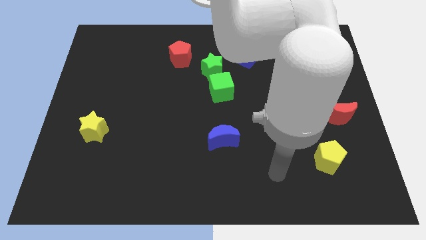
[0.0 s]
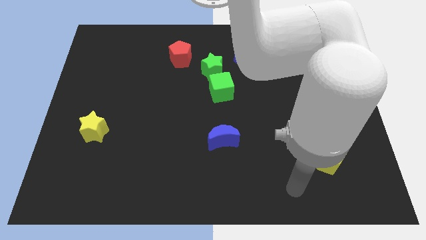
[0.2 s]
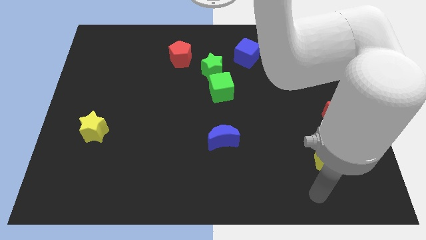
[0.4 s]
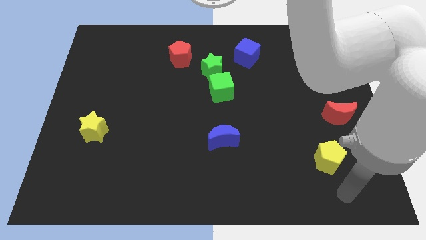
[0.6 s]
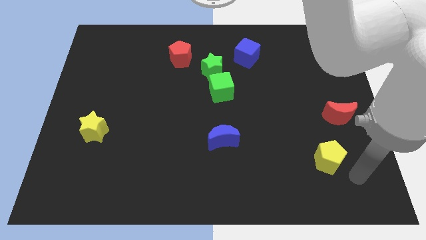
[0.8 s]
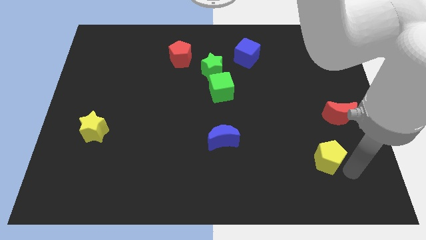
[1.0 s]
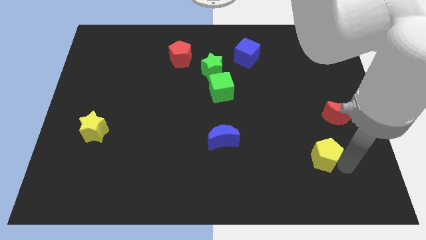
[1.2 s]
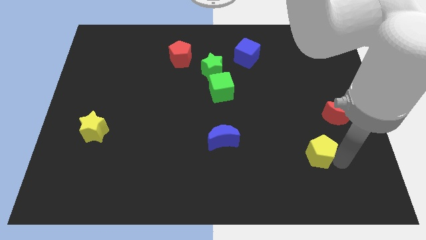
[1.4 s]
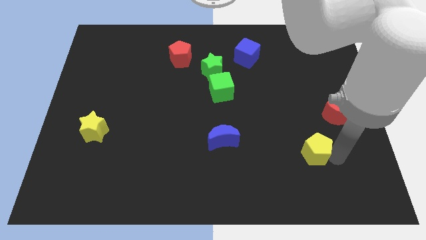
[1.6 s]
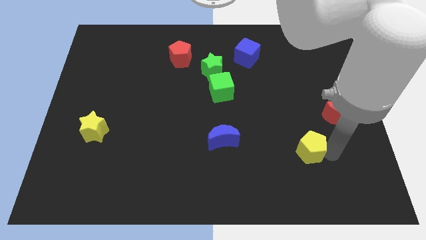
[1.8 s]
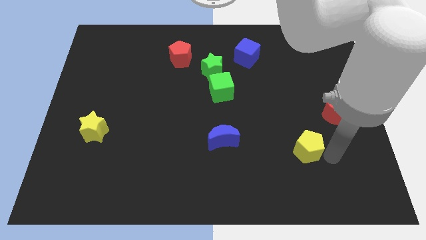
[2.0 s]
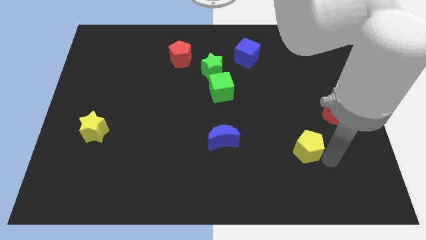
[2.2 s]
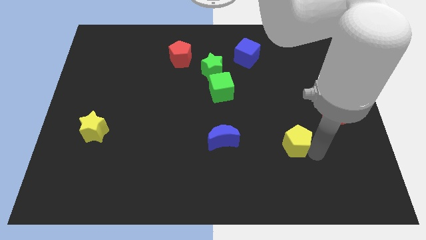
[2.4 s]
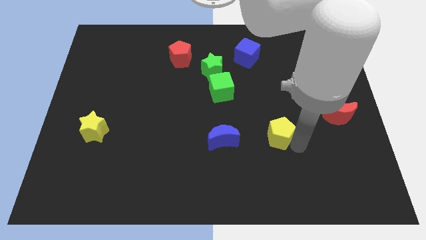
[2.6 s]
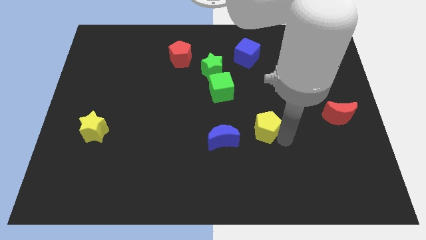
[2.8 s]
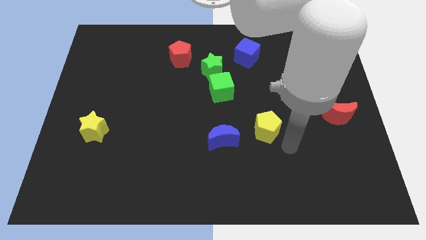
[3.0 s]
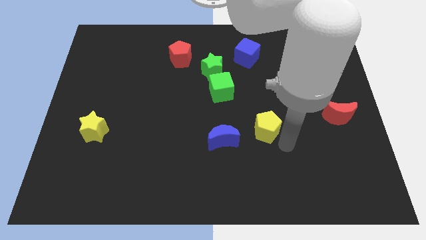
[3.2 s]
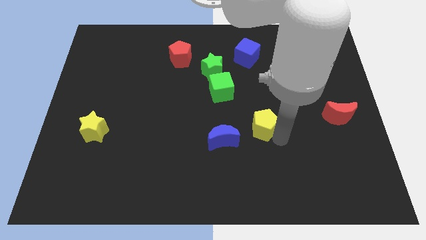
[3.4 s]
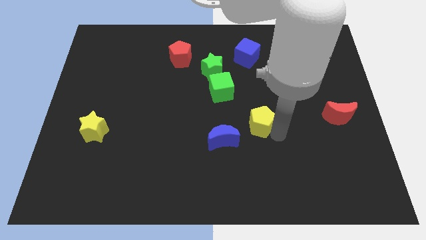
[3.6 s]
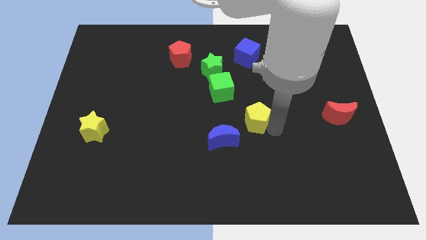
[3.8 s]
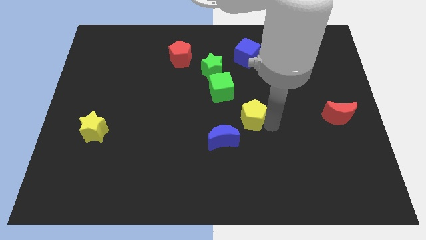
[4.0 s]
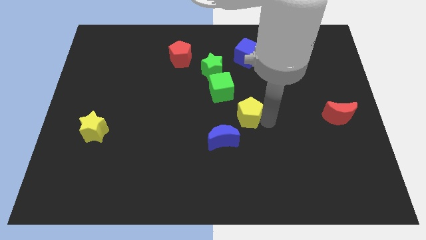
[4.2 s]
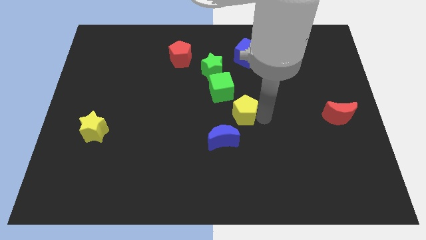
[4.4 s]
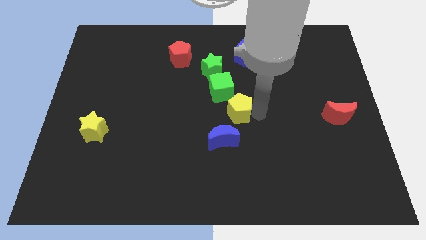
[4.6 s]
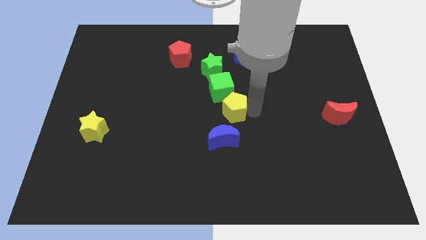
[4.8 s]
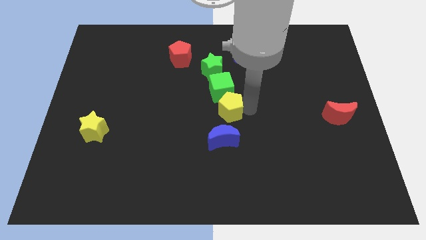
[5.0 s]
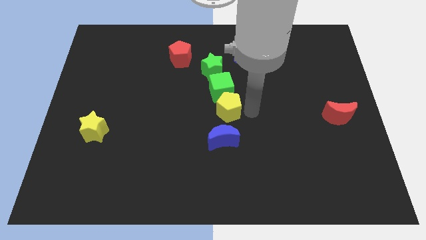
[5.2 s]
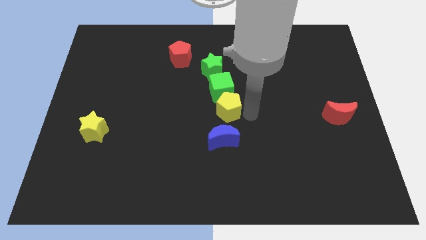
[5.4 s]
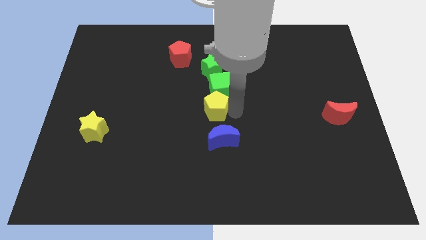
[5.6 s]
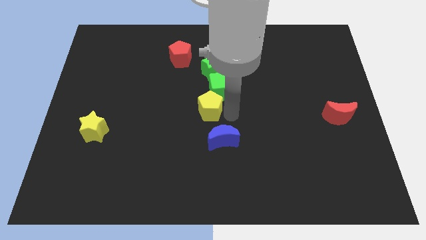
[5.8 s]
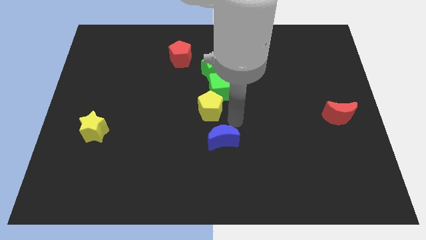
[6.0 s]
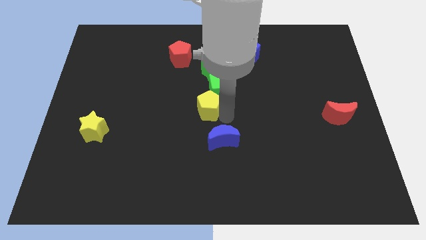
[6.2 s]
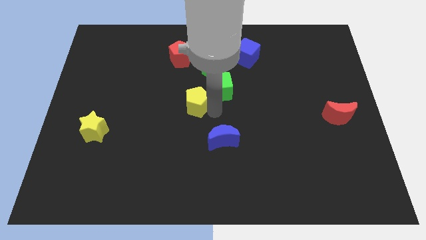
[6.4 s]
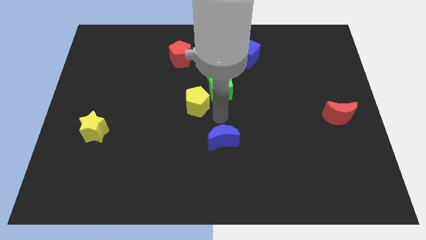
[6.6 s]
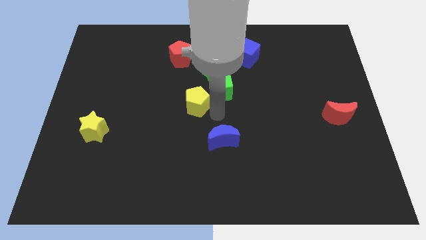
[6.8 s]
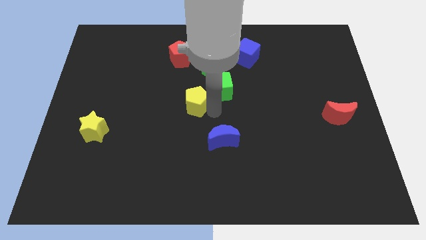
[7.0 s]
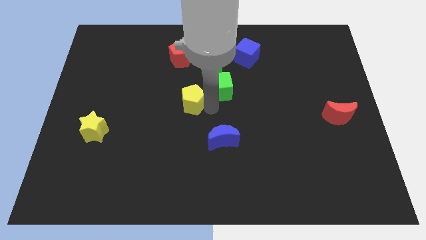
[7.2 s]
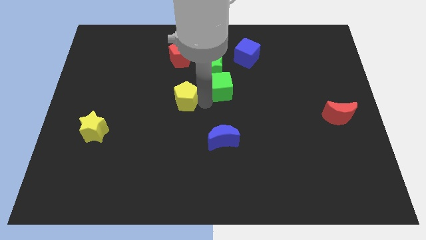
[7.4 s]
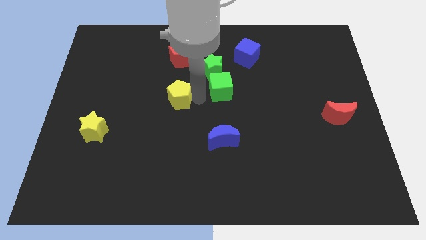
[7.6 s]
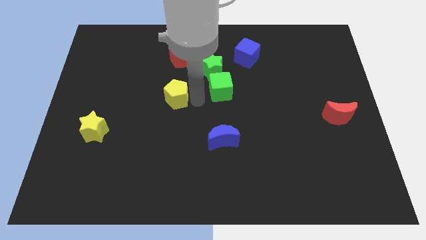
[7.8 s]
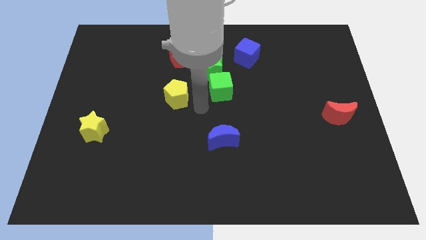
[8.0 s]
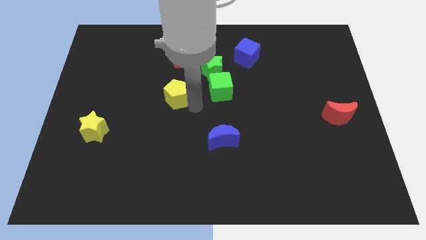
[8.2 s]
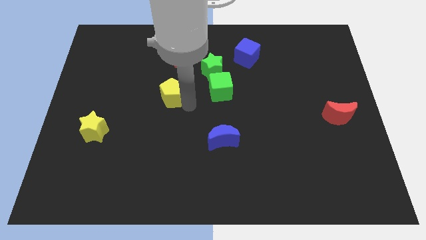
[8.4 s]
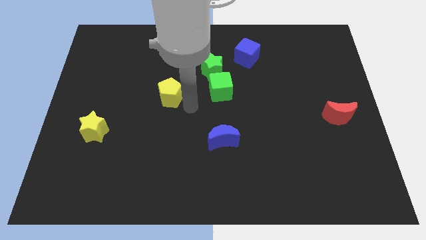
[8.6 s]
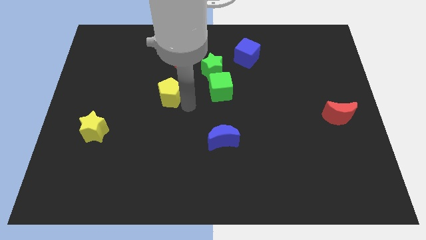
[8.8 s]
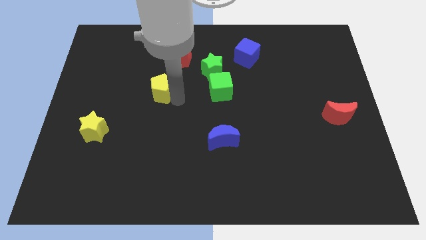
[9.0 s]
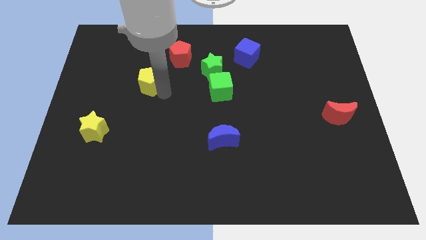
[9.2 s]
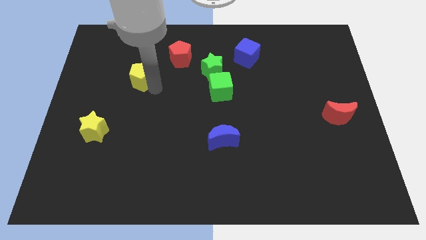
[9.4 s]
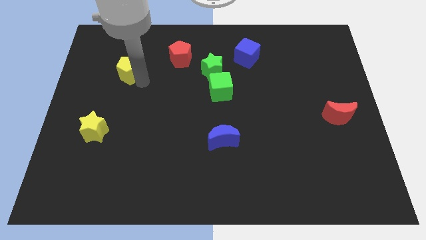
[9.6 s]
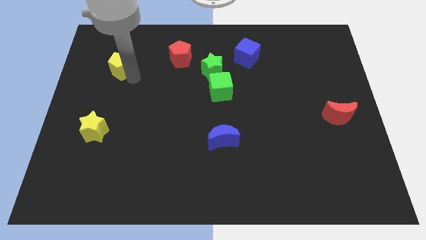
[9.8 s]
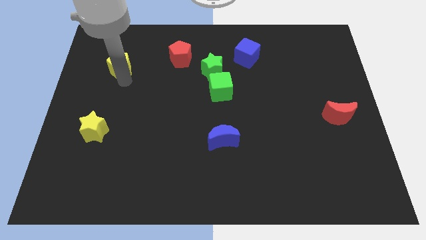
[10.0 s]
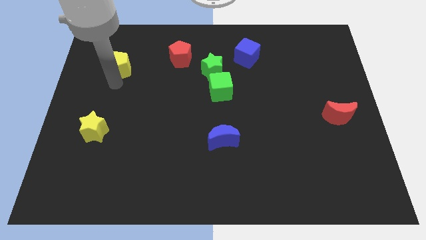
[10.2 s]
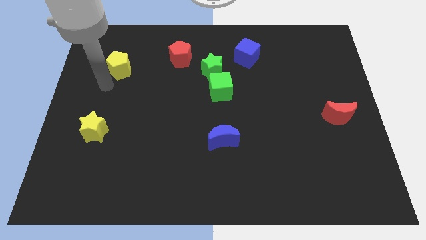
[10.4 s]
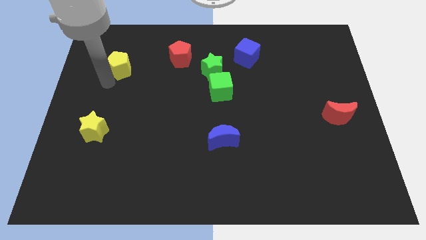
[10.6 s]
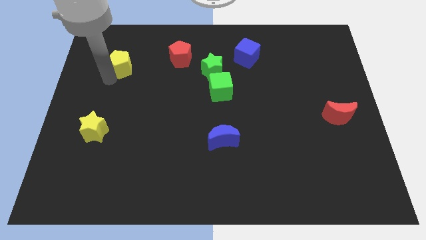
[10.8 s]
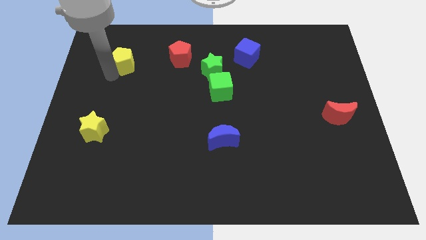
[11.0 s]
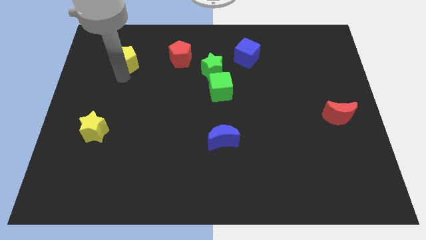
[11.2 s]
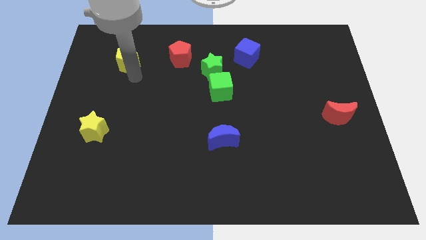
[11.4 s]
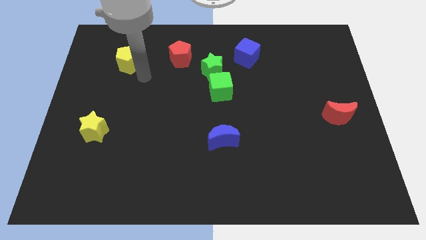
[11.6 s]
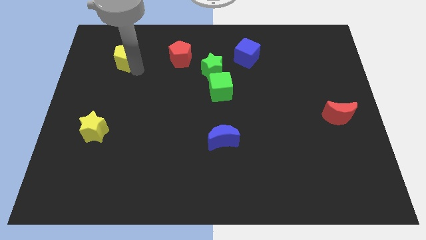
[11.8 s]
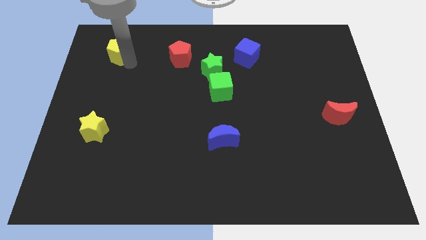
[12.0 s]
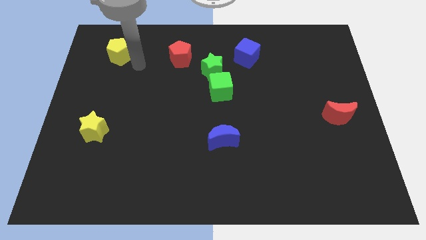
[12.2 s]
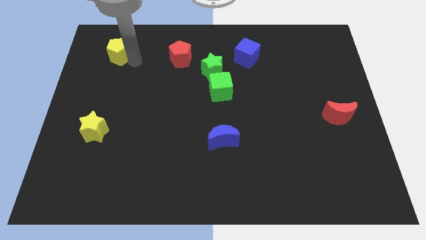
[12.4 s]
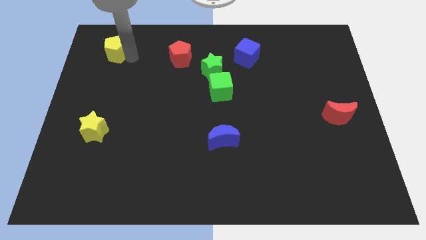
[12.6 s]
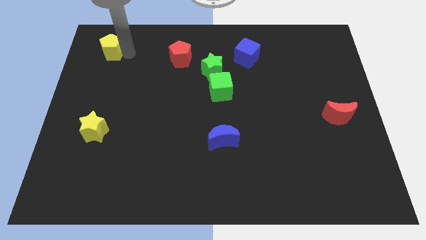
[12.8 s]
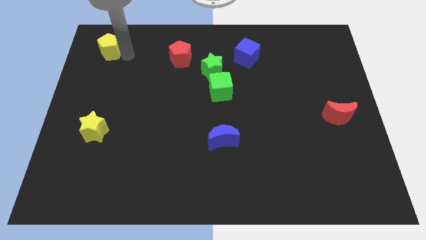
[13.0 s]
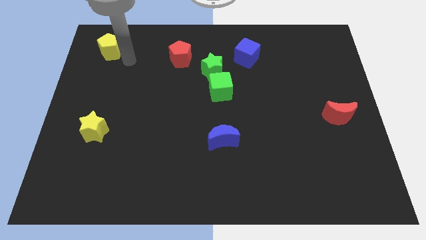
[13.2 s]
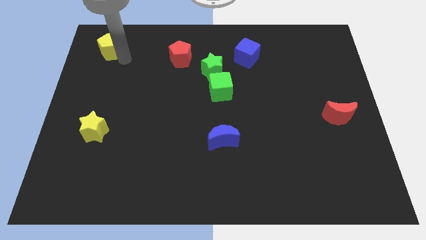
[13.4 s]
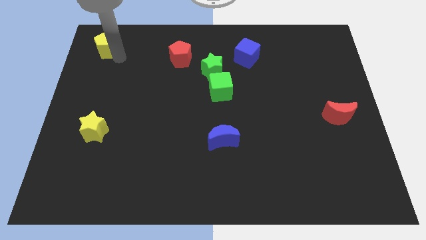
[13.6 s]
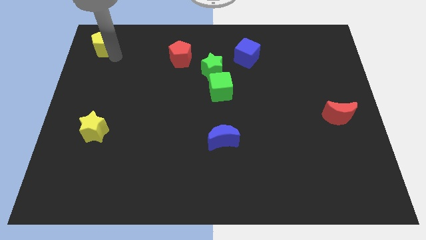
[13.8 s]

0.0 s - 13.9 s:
put the yellow pentagon to the upper left corner
